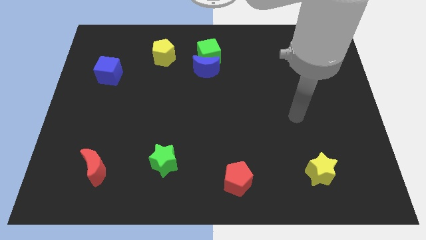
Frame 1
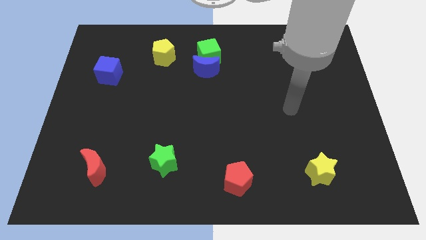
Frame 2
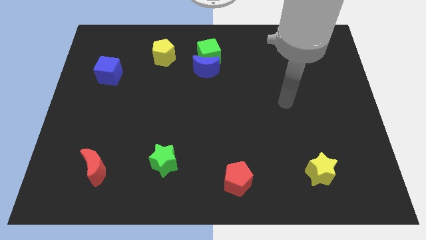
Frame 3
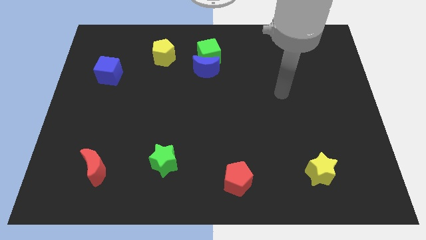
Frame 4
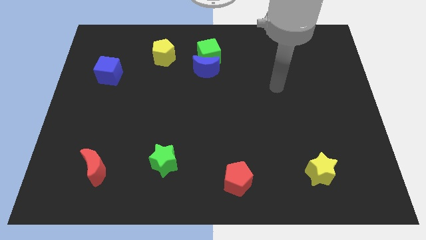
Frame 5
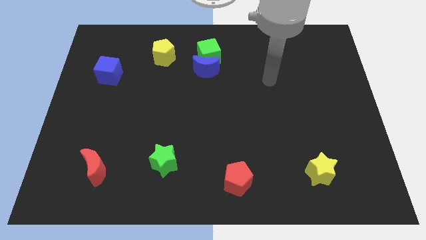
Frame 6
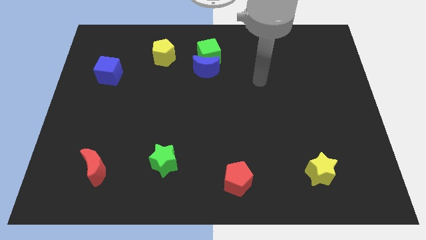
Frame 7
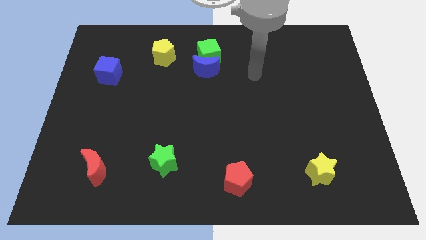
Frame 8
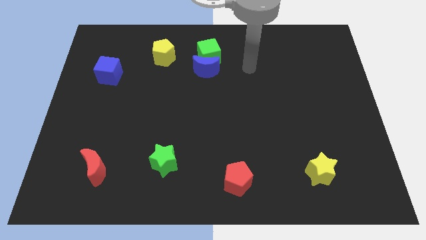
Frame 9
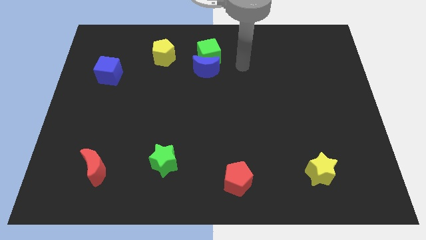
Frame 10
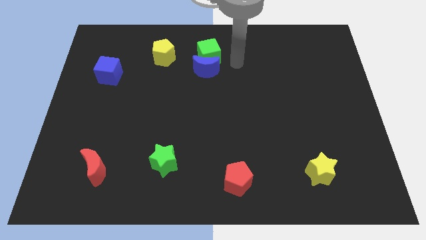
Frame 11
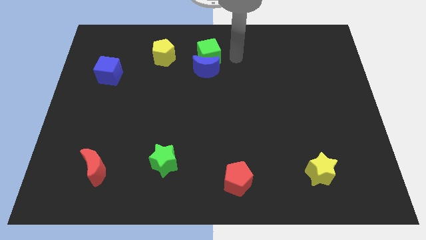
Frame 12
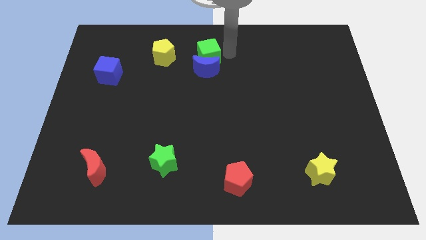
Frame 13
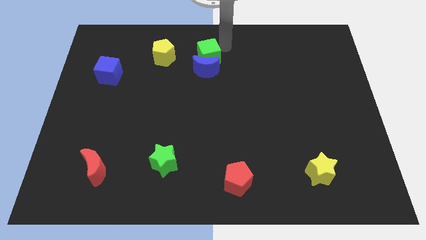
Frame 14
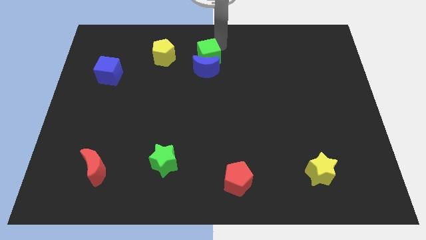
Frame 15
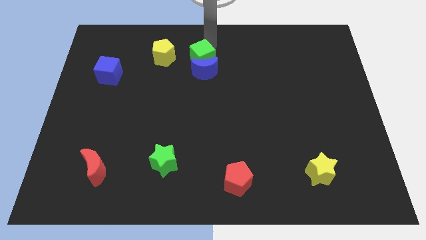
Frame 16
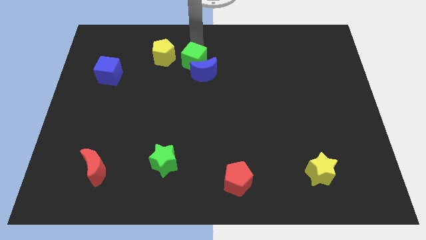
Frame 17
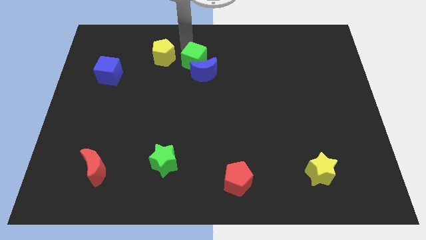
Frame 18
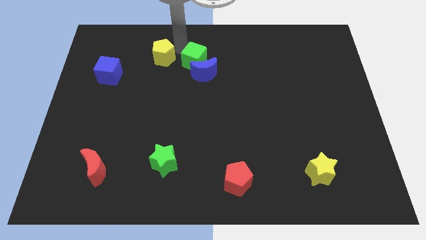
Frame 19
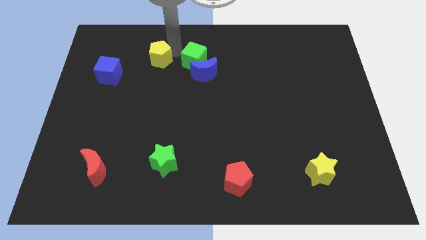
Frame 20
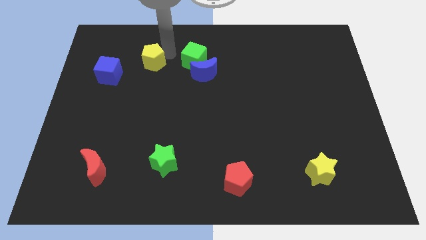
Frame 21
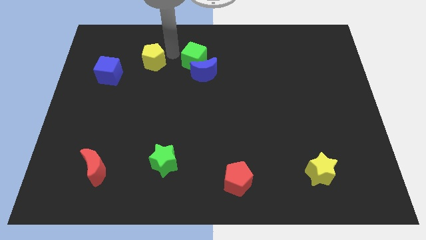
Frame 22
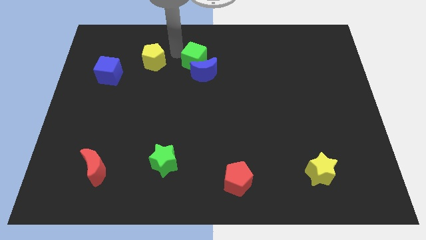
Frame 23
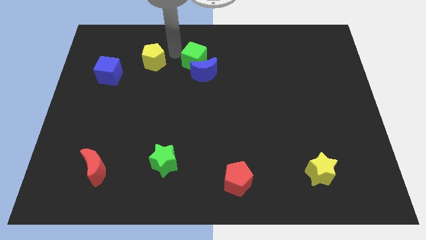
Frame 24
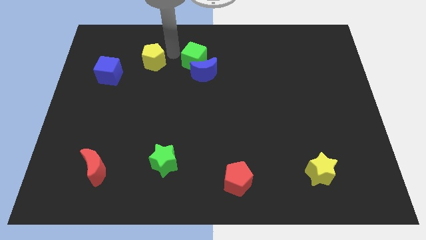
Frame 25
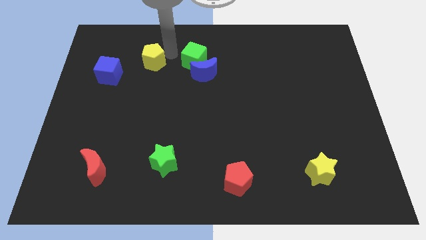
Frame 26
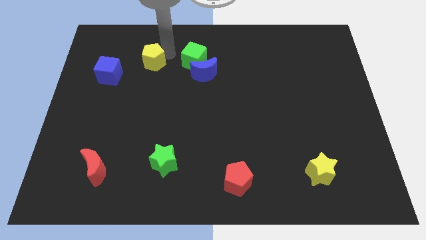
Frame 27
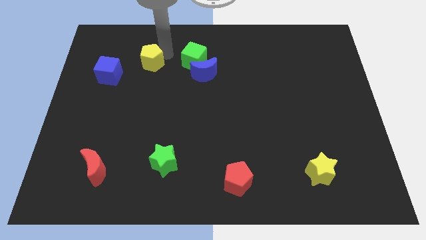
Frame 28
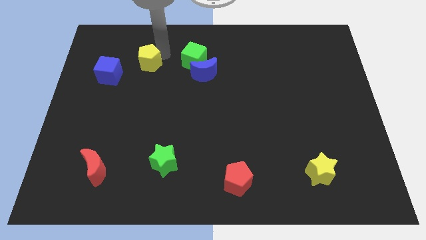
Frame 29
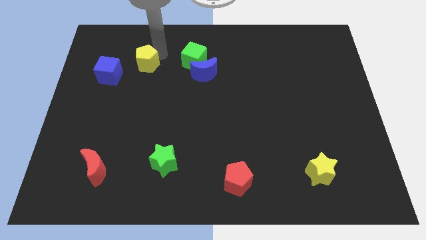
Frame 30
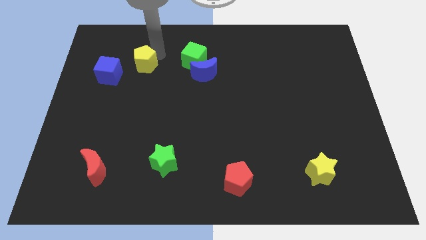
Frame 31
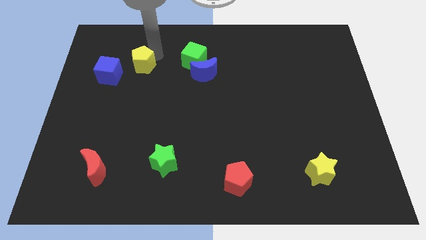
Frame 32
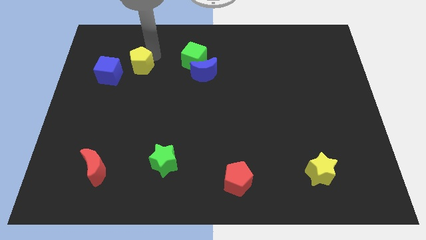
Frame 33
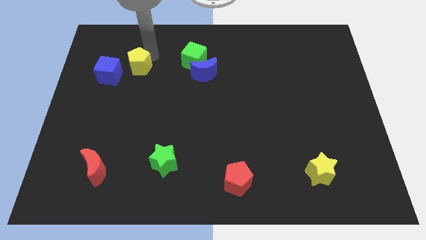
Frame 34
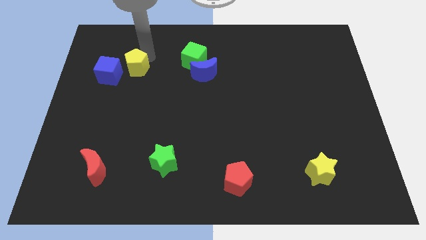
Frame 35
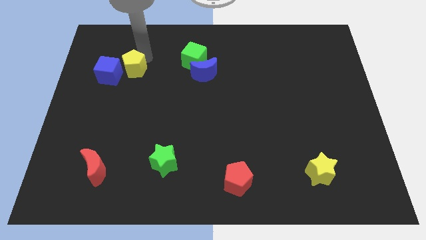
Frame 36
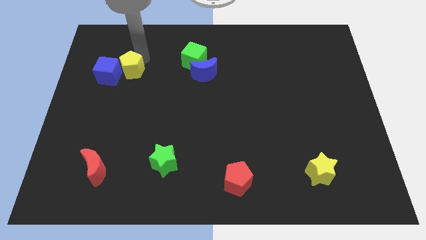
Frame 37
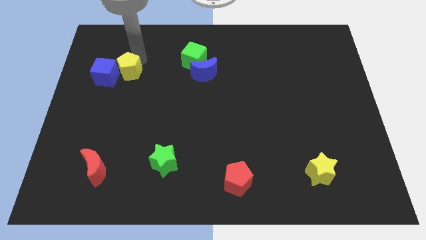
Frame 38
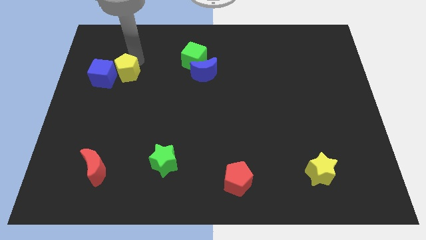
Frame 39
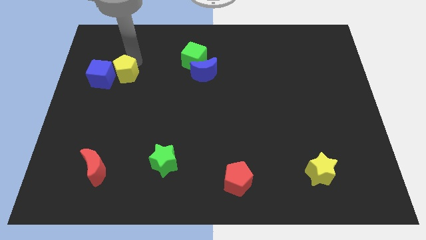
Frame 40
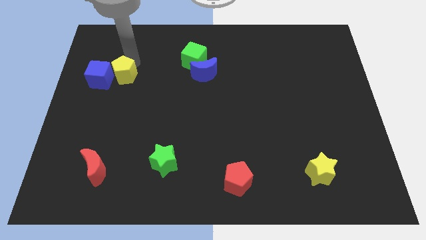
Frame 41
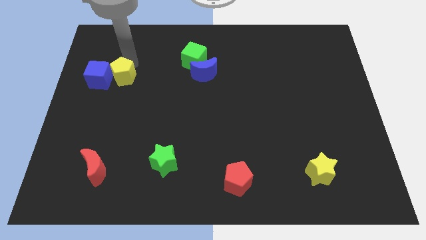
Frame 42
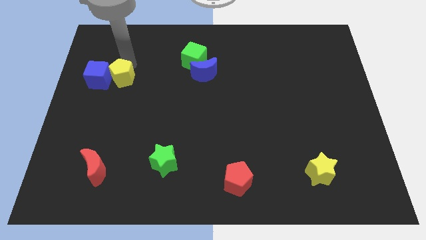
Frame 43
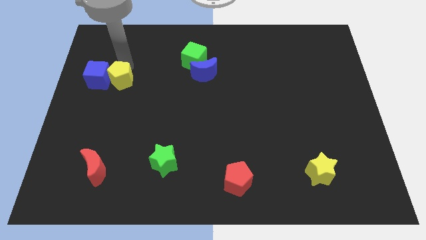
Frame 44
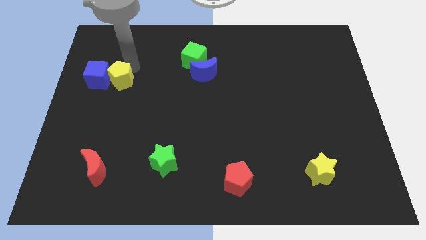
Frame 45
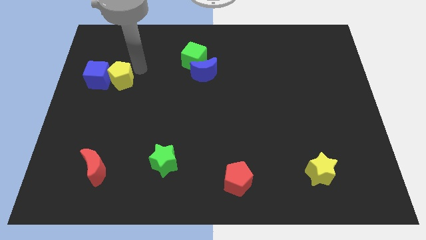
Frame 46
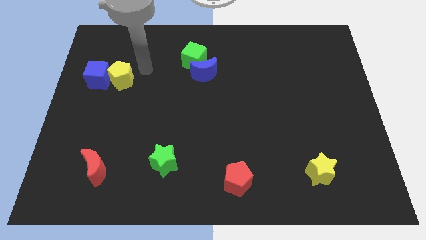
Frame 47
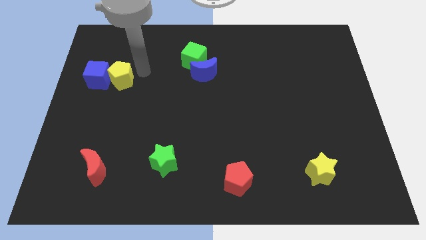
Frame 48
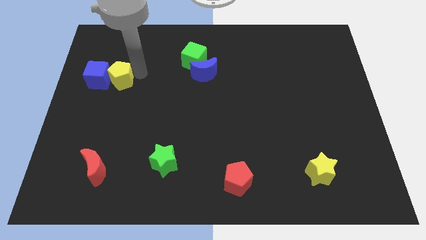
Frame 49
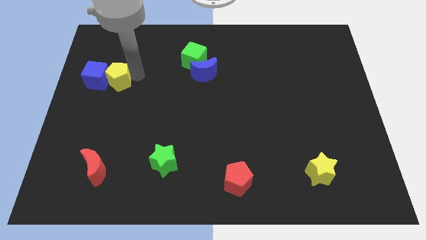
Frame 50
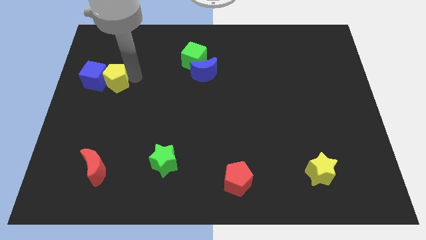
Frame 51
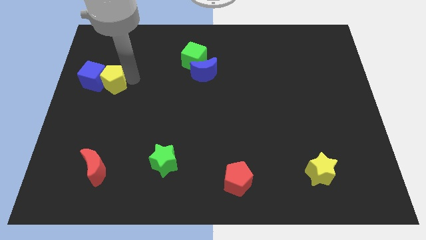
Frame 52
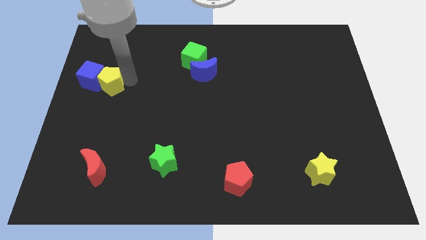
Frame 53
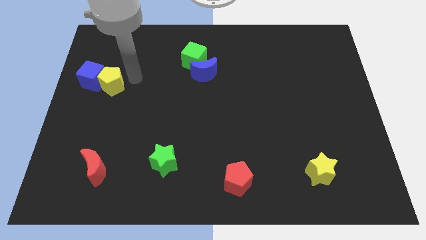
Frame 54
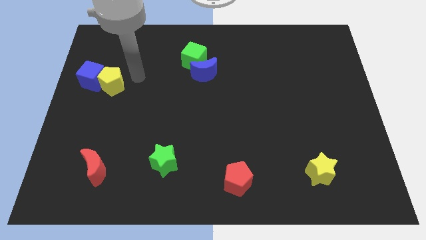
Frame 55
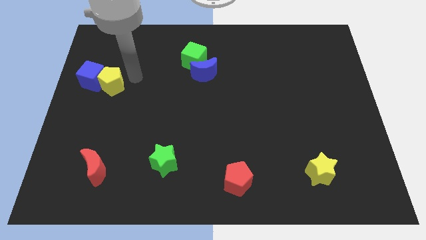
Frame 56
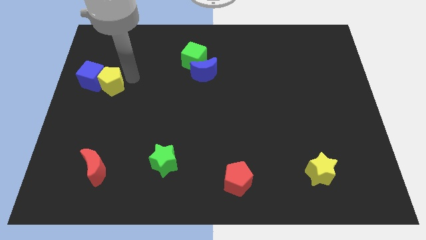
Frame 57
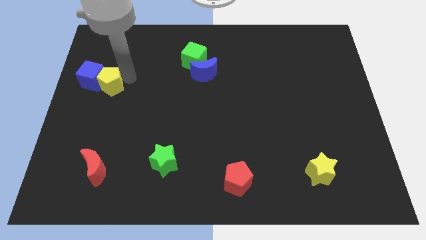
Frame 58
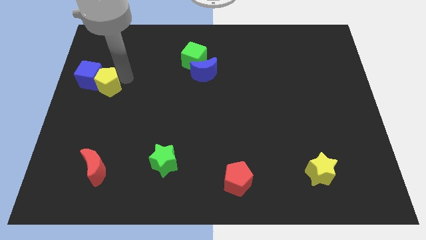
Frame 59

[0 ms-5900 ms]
push the yellow pentagon to the center left

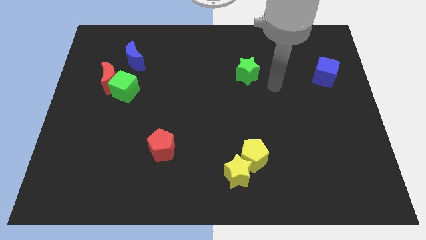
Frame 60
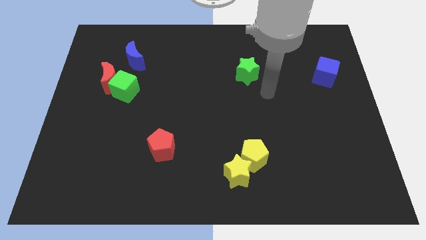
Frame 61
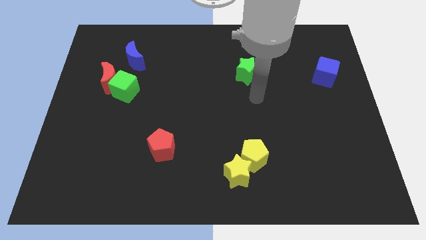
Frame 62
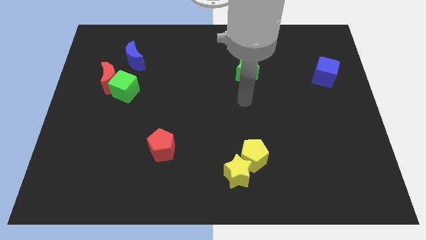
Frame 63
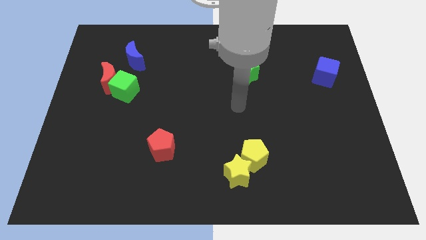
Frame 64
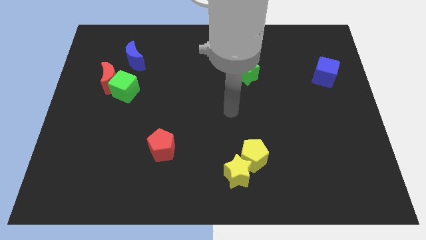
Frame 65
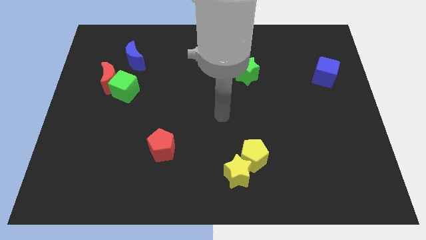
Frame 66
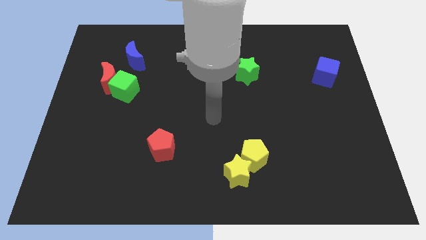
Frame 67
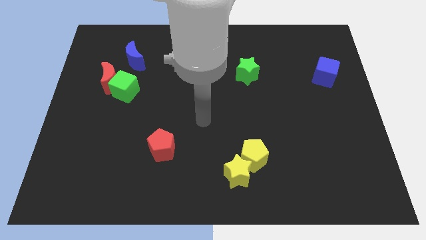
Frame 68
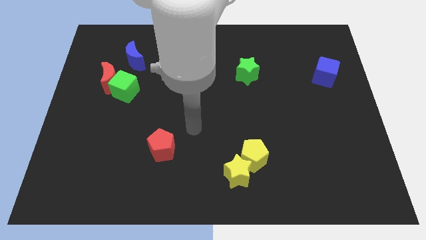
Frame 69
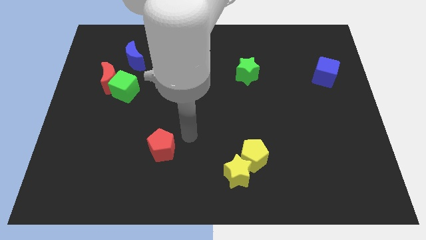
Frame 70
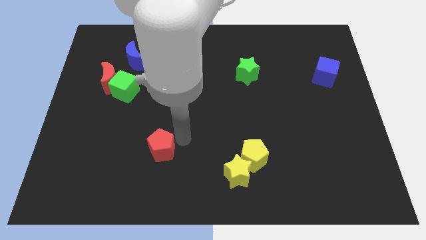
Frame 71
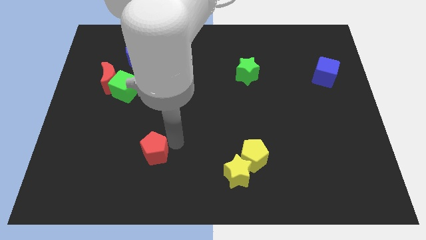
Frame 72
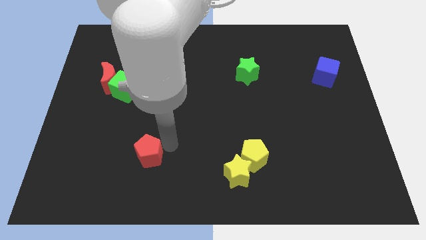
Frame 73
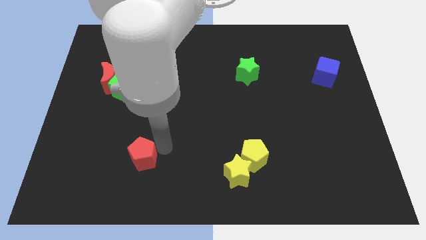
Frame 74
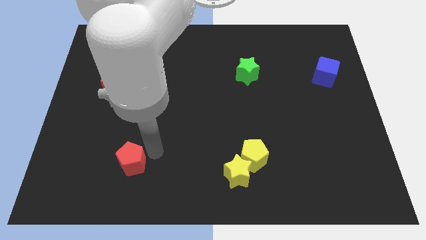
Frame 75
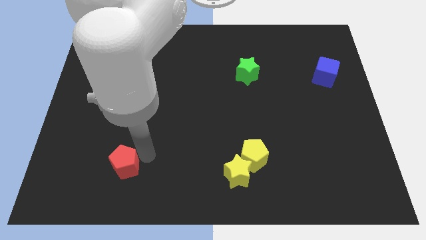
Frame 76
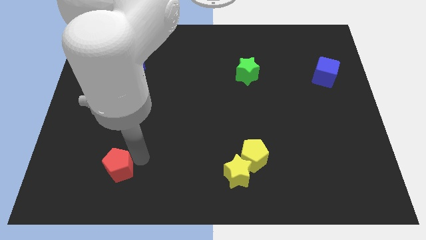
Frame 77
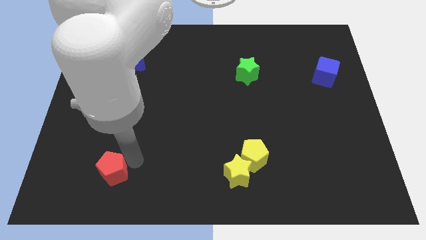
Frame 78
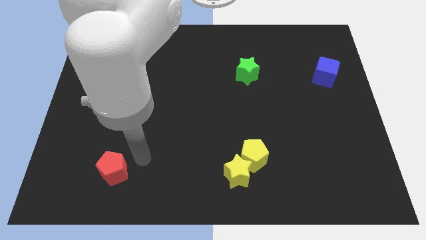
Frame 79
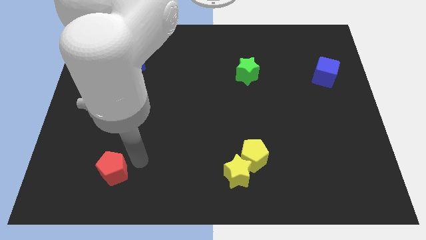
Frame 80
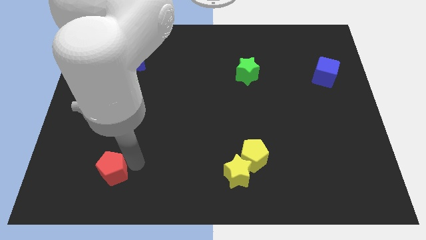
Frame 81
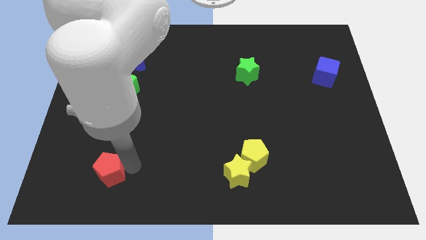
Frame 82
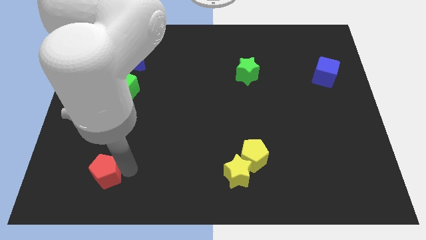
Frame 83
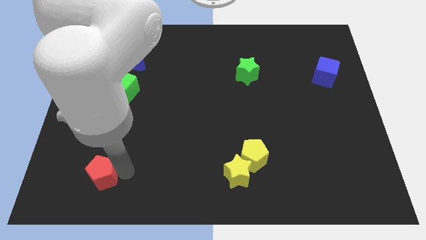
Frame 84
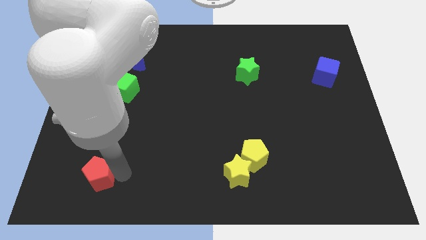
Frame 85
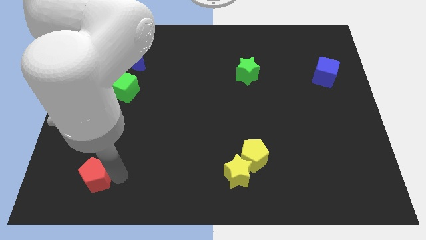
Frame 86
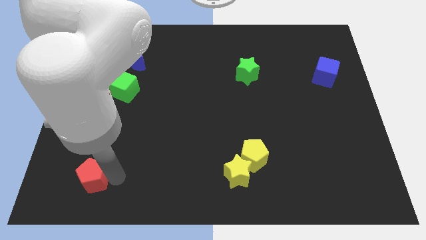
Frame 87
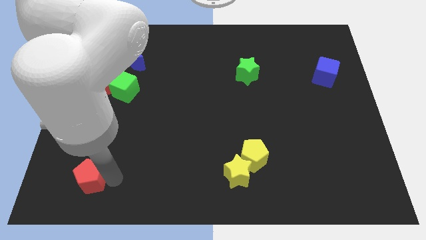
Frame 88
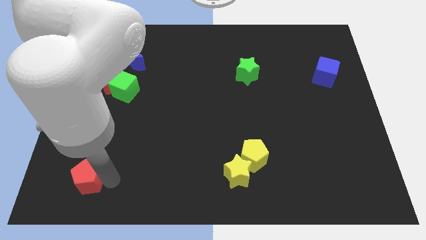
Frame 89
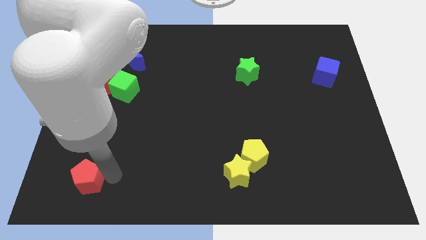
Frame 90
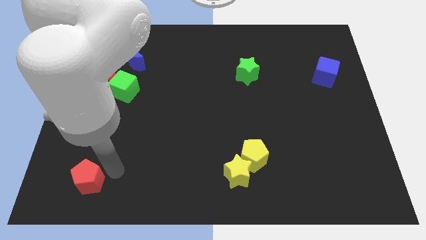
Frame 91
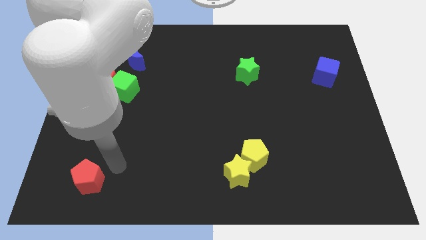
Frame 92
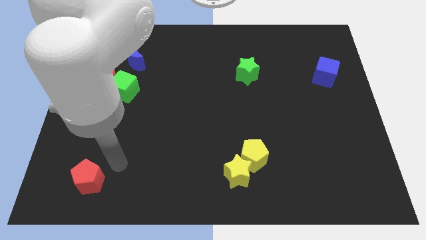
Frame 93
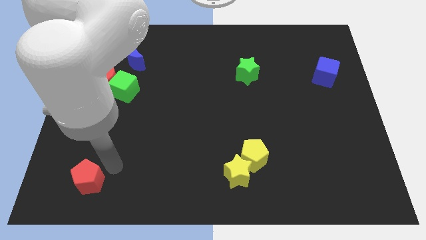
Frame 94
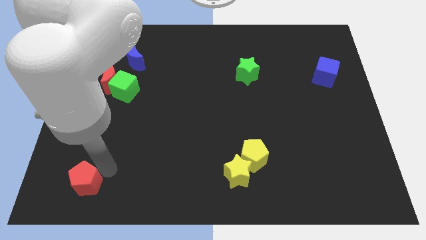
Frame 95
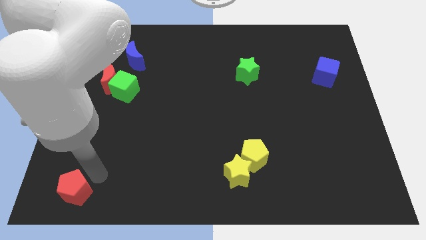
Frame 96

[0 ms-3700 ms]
put the red pentagon to the lower left corner
